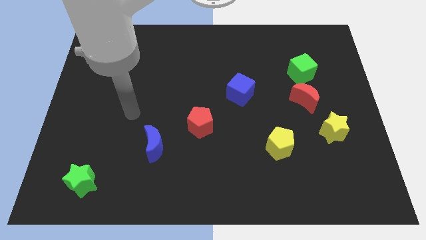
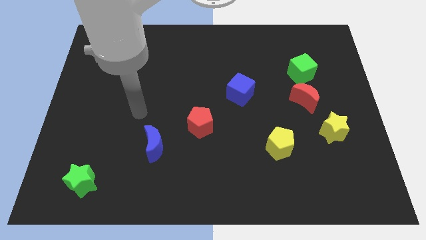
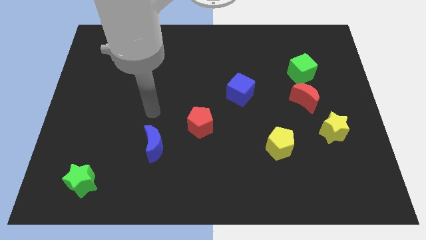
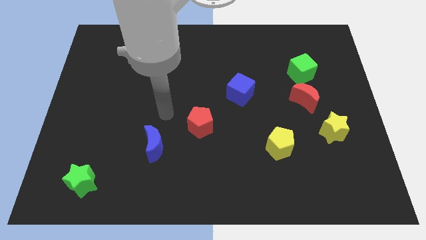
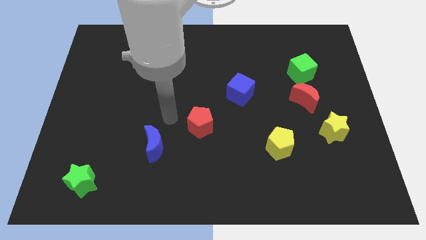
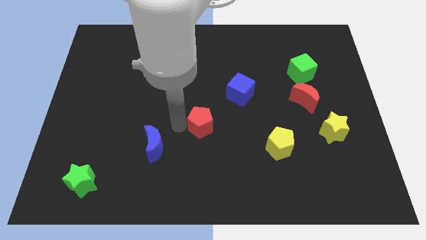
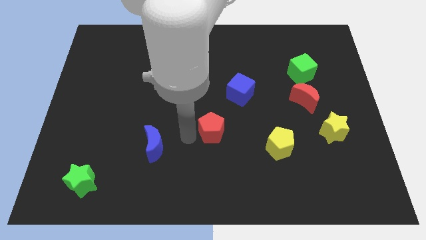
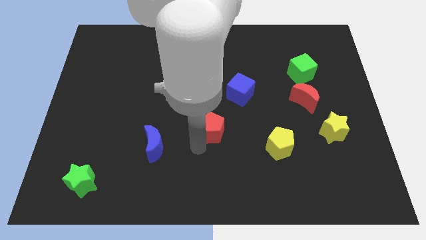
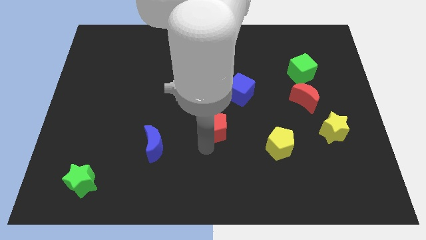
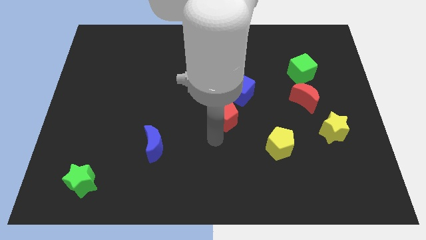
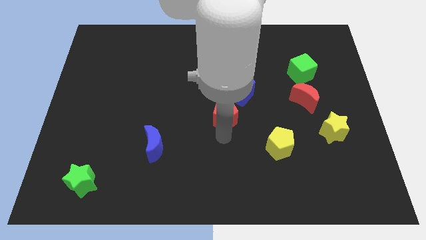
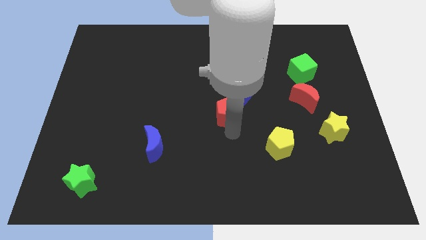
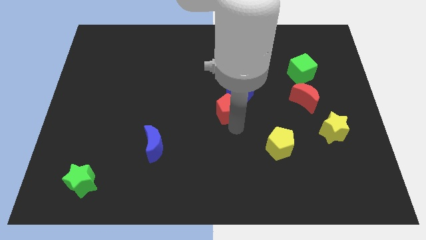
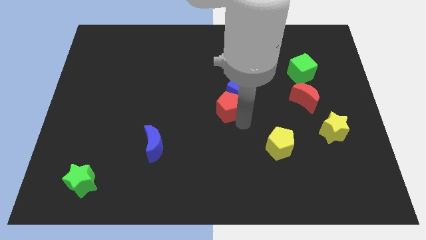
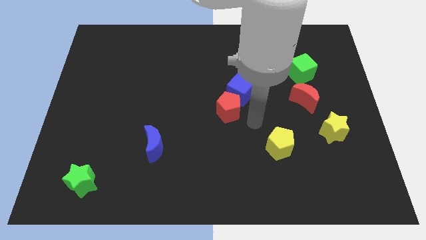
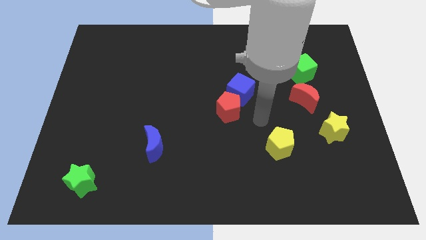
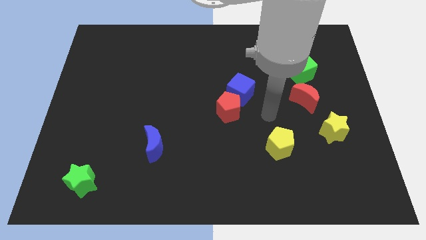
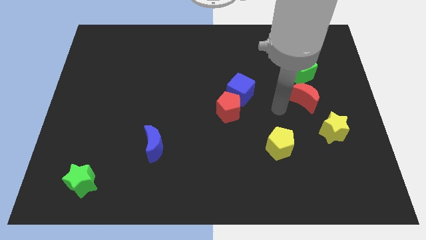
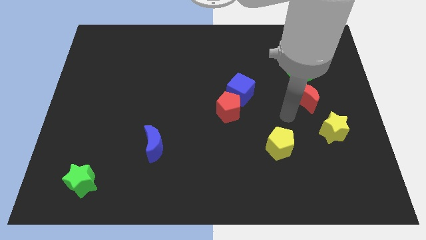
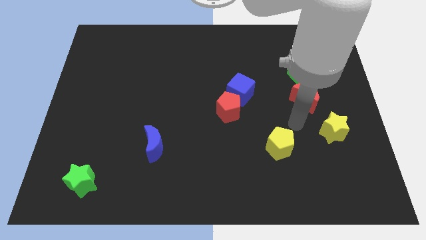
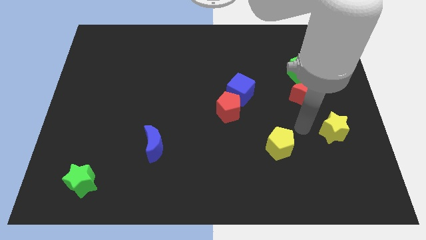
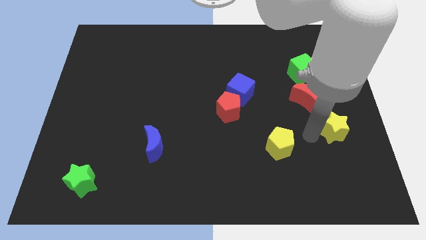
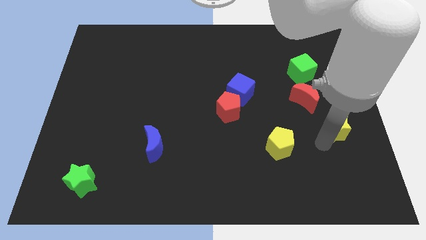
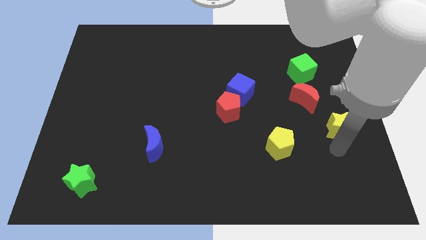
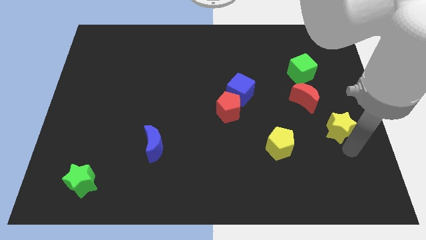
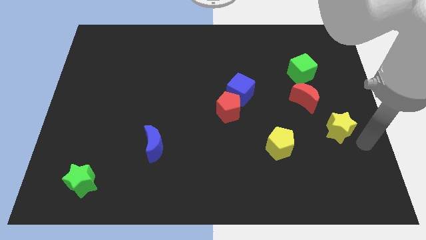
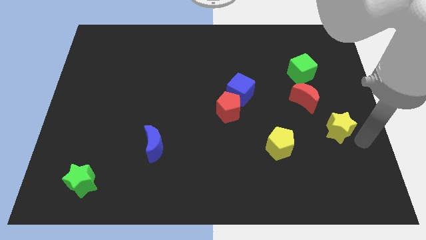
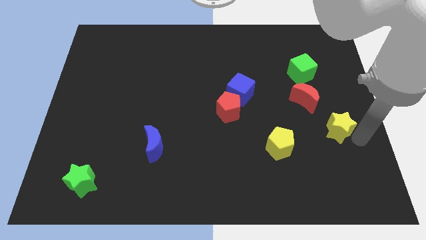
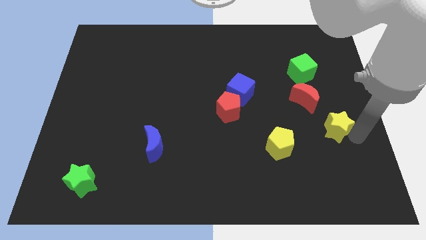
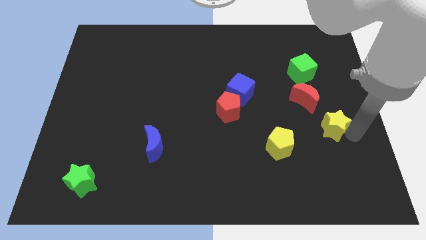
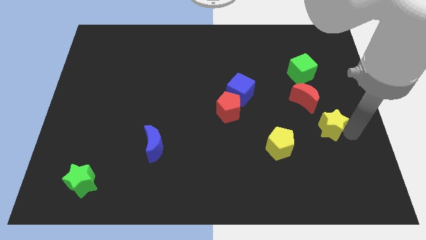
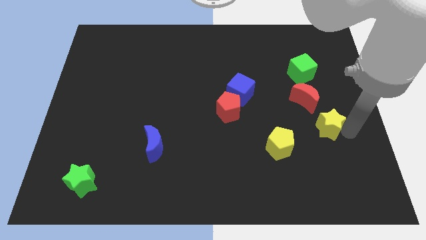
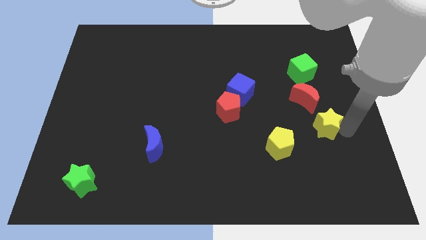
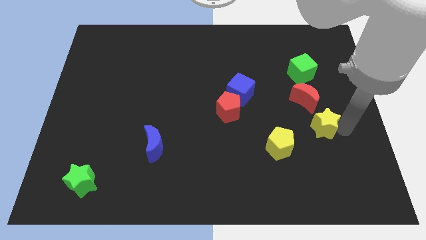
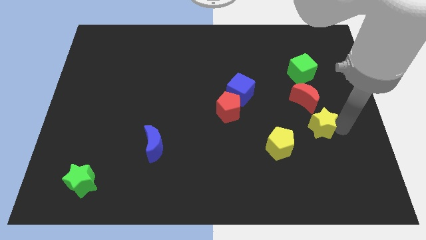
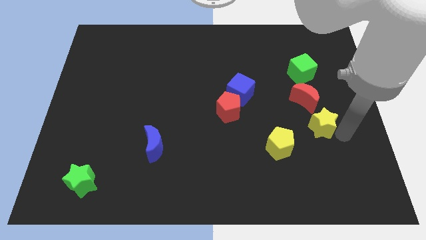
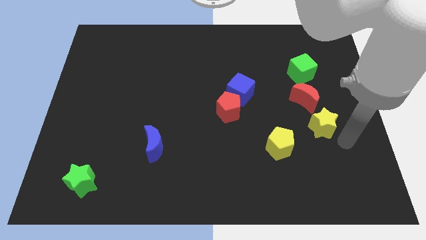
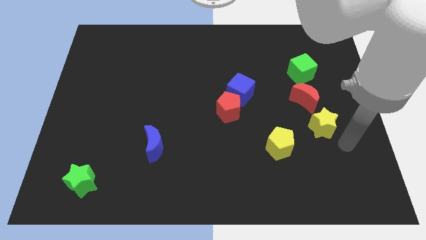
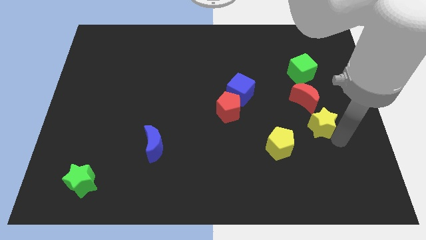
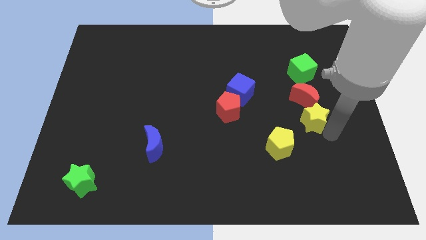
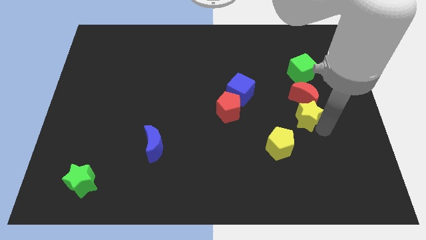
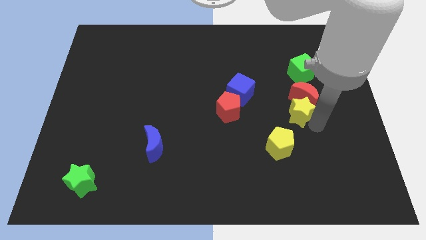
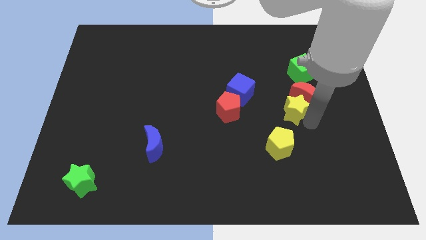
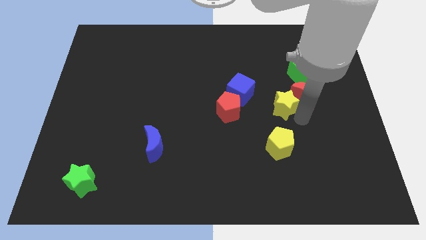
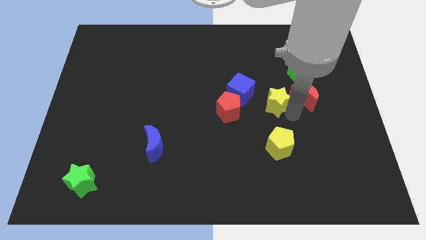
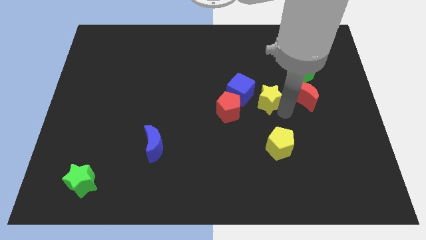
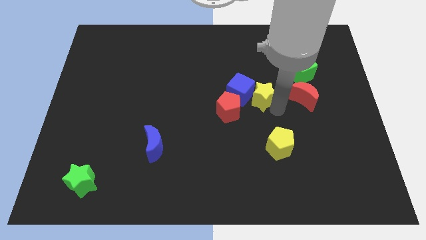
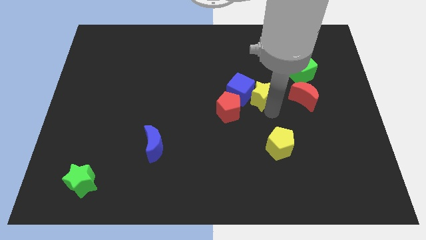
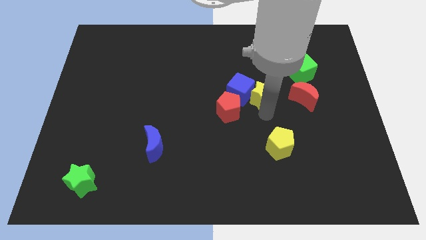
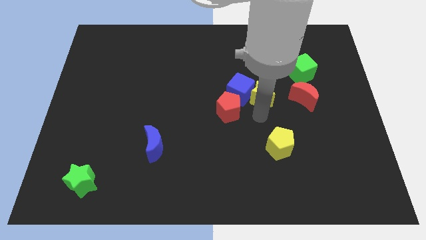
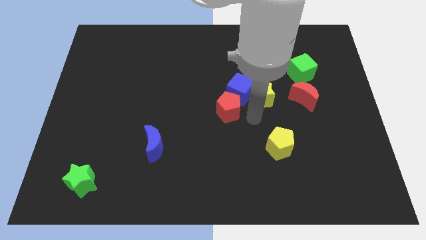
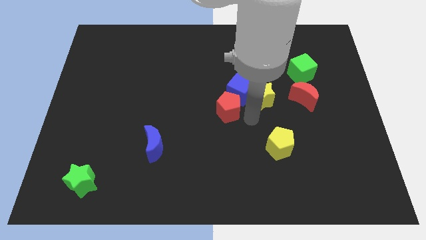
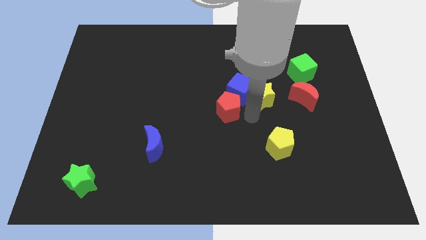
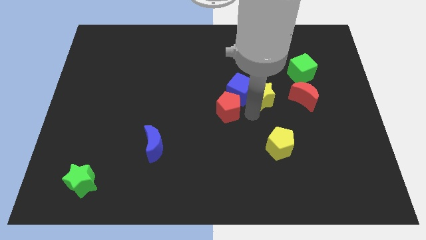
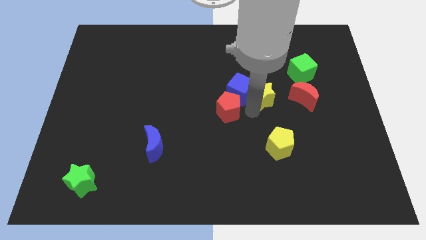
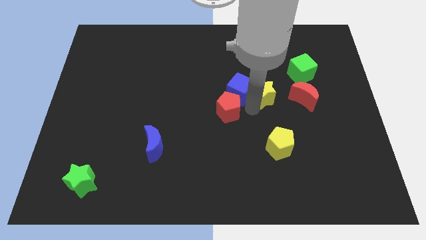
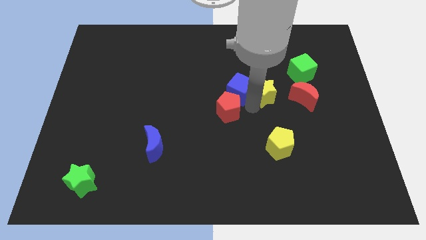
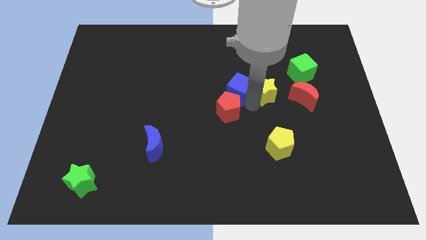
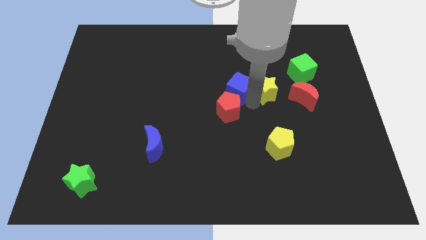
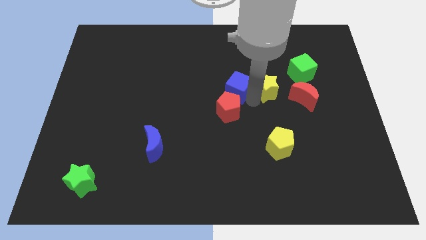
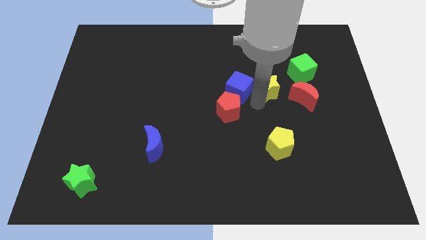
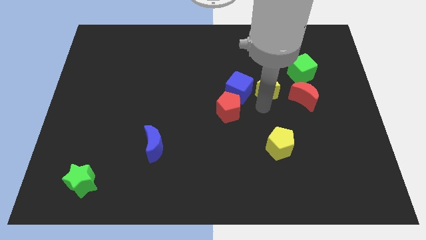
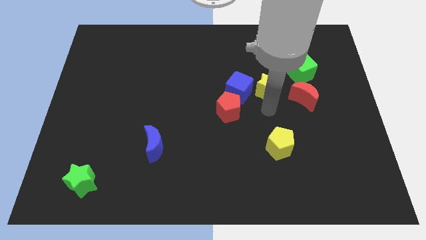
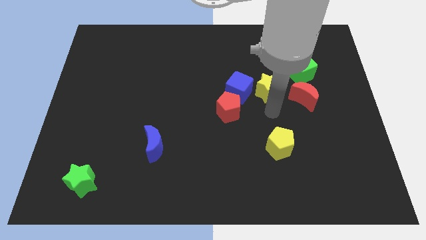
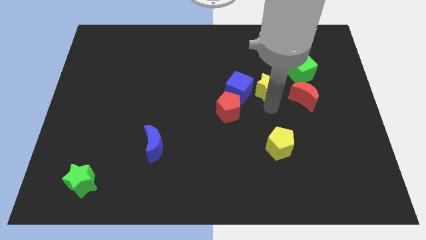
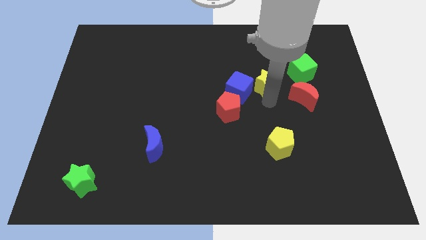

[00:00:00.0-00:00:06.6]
put the yellow star left of the green cube
